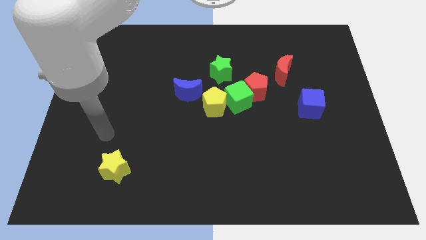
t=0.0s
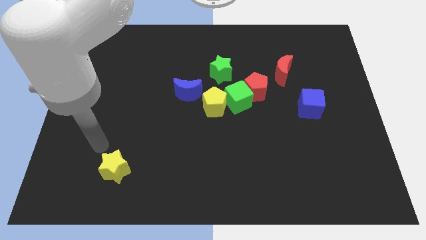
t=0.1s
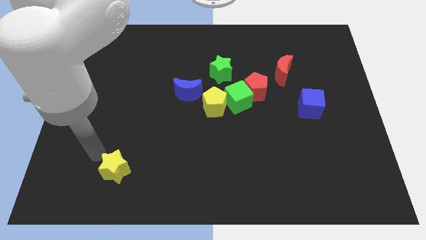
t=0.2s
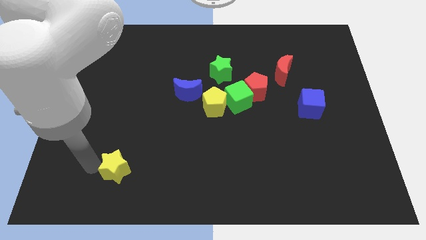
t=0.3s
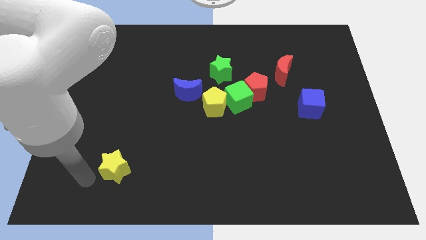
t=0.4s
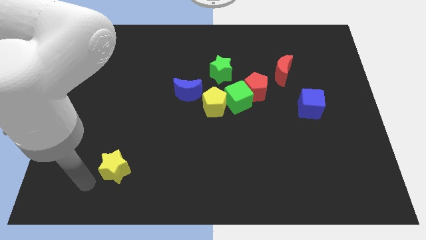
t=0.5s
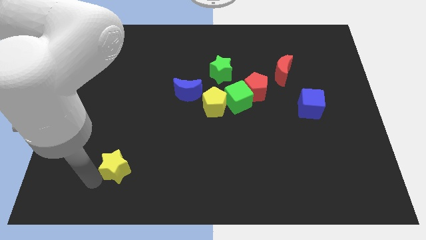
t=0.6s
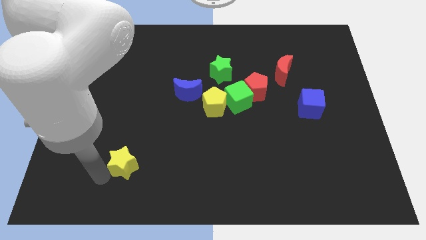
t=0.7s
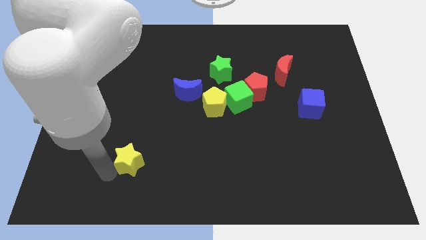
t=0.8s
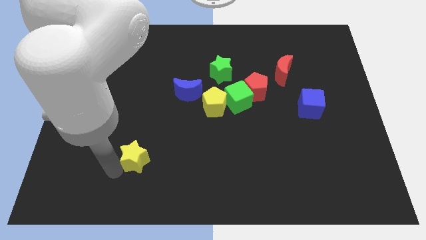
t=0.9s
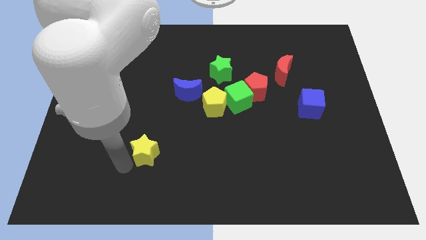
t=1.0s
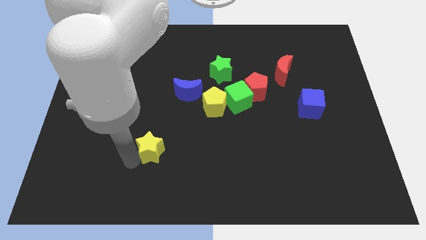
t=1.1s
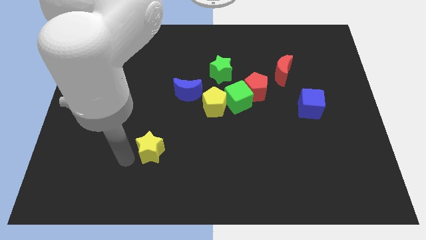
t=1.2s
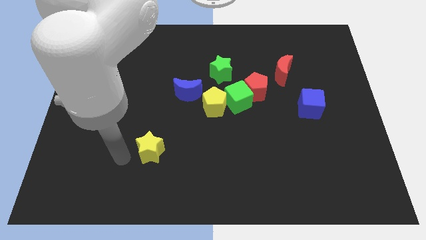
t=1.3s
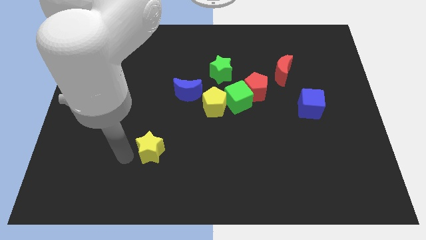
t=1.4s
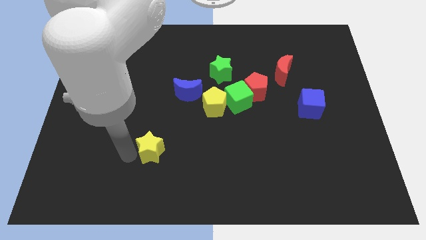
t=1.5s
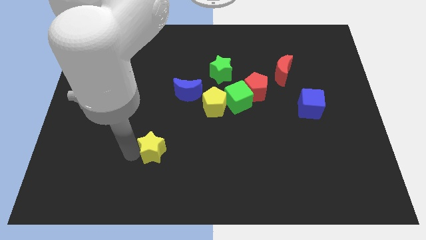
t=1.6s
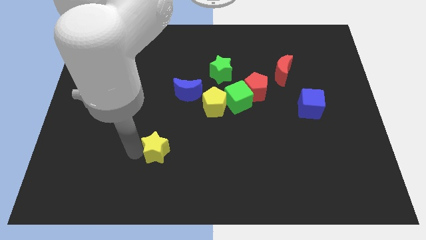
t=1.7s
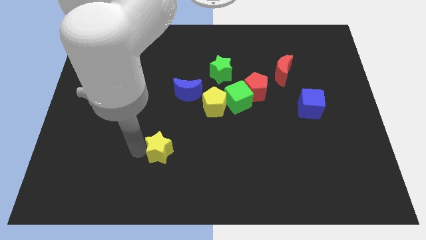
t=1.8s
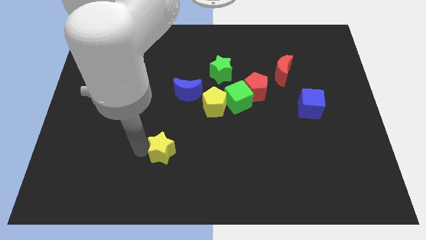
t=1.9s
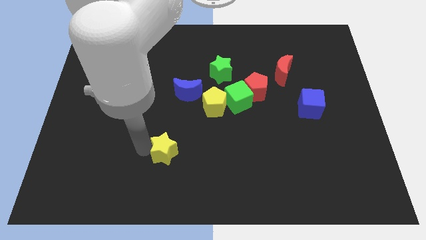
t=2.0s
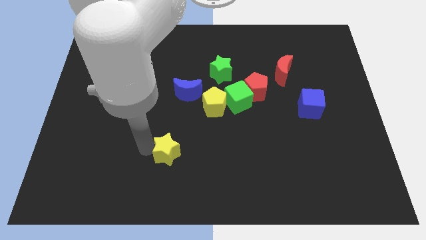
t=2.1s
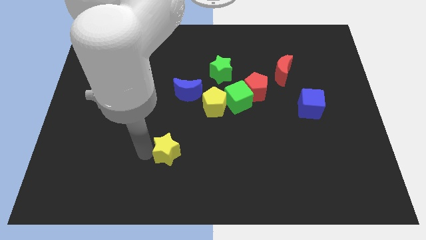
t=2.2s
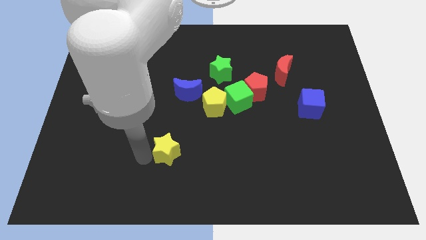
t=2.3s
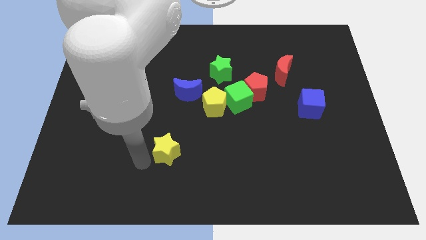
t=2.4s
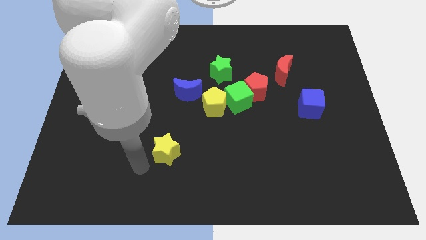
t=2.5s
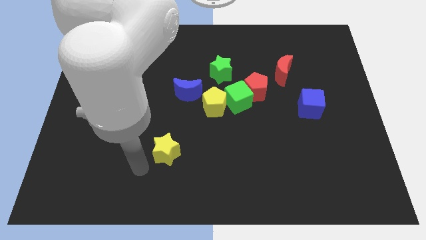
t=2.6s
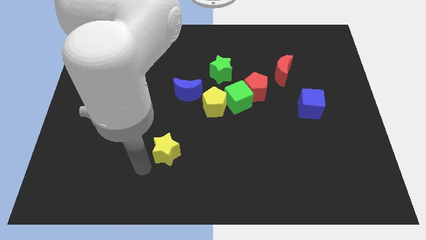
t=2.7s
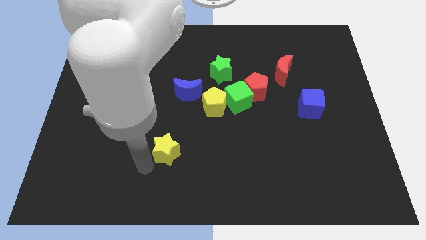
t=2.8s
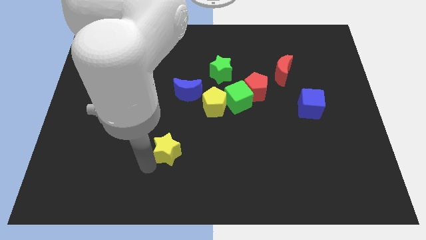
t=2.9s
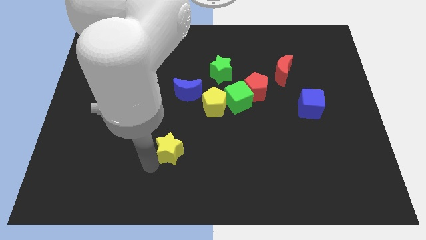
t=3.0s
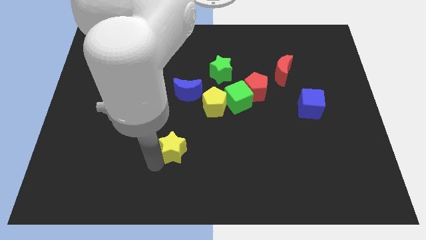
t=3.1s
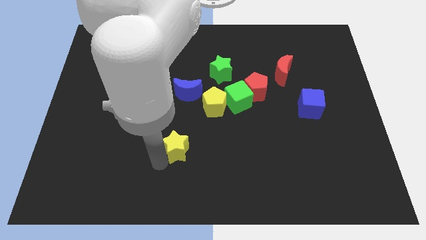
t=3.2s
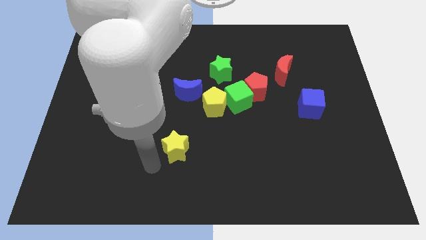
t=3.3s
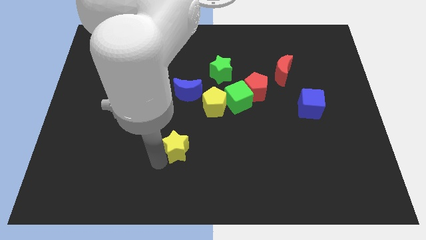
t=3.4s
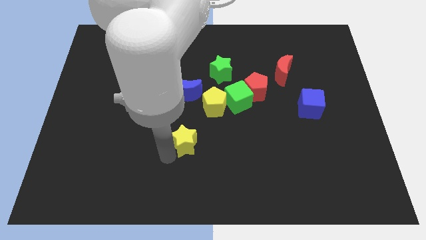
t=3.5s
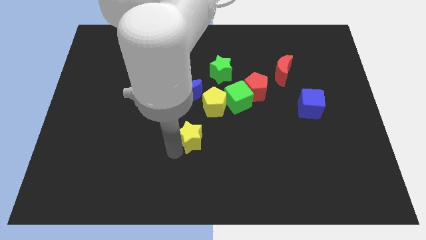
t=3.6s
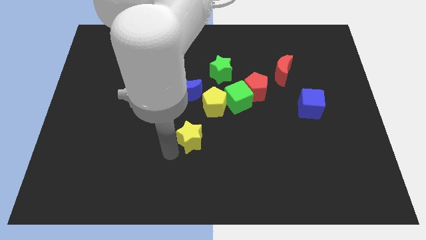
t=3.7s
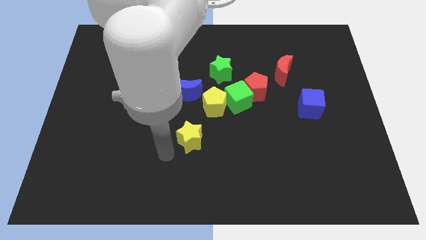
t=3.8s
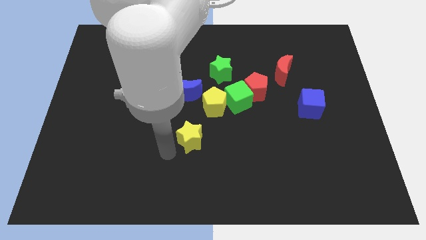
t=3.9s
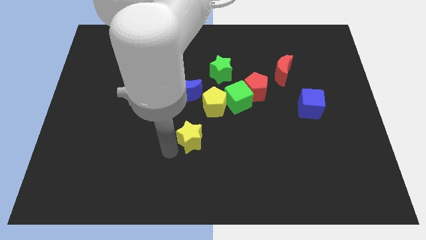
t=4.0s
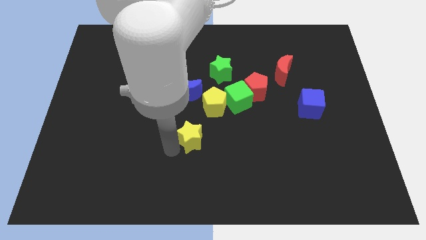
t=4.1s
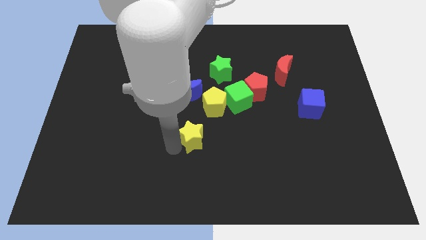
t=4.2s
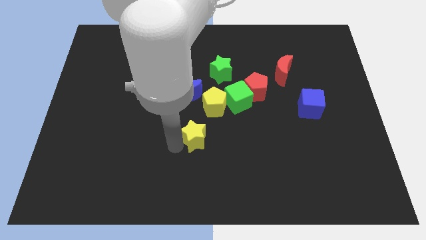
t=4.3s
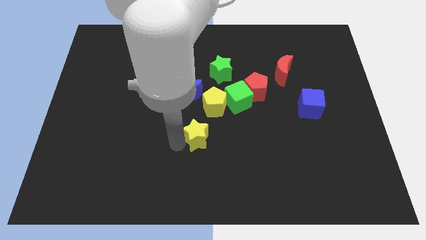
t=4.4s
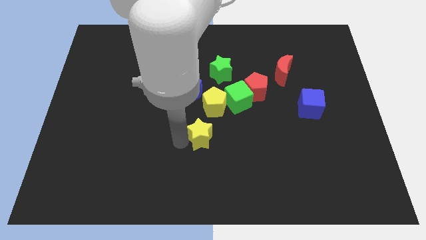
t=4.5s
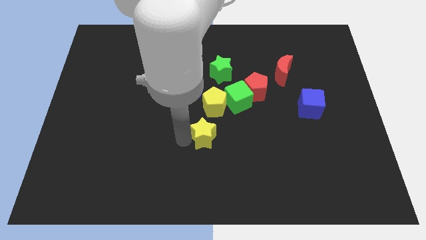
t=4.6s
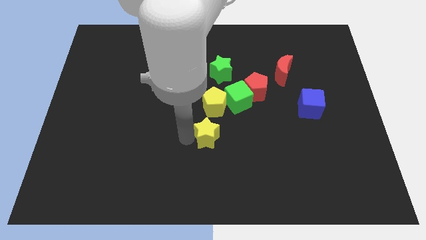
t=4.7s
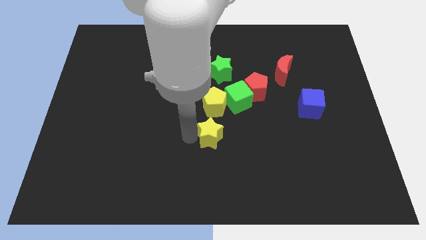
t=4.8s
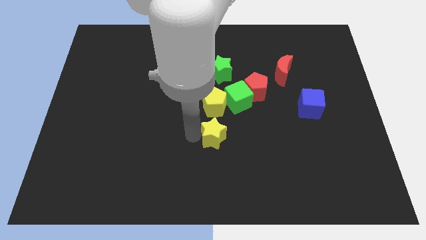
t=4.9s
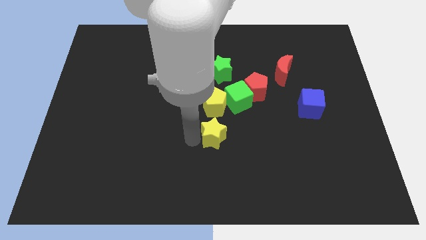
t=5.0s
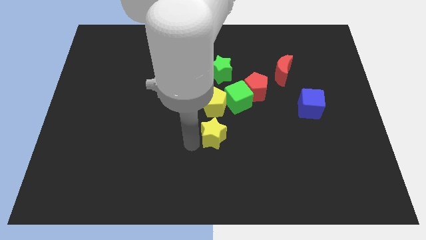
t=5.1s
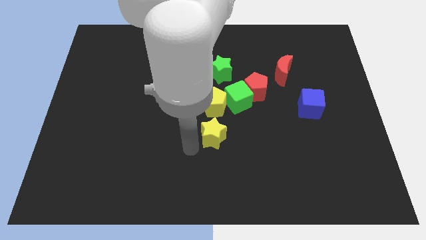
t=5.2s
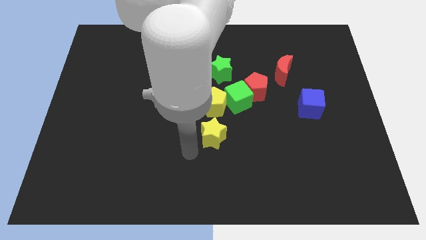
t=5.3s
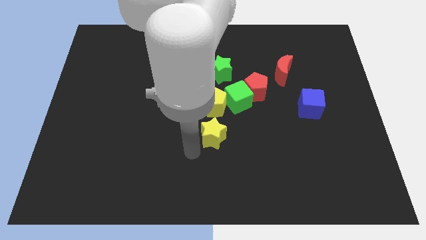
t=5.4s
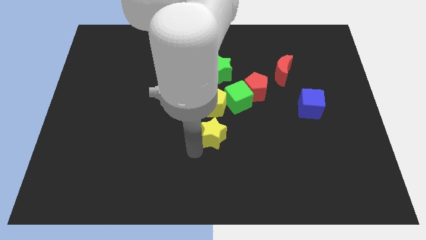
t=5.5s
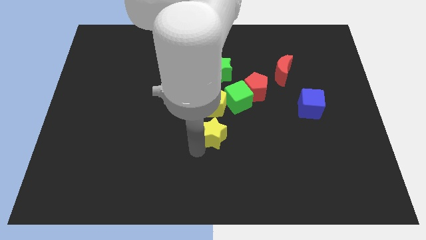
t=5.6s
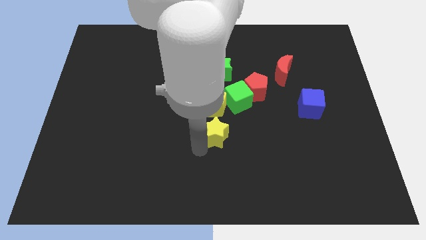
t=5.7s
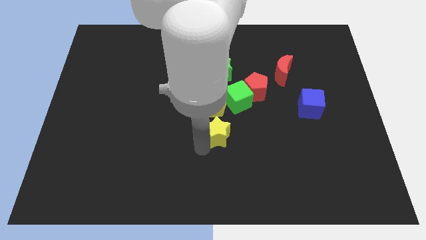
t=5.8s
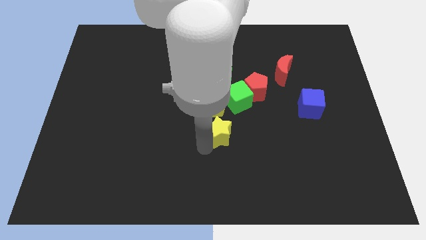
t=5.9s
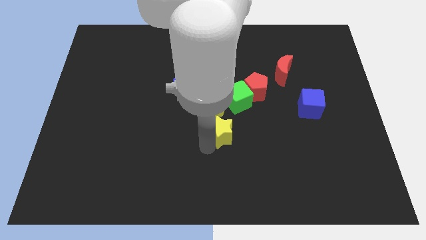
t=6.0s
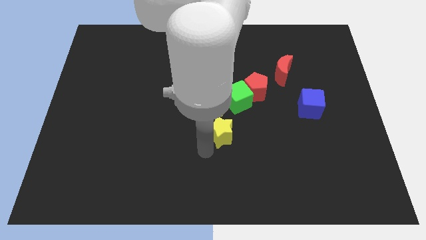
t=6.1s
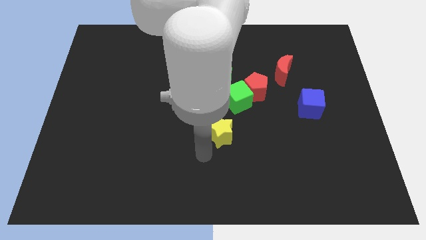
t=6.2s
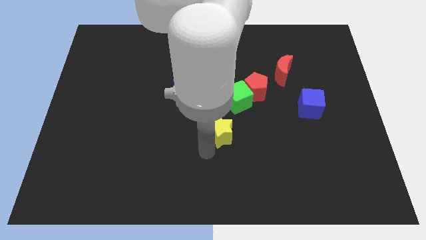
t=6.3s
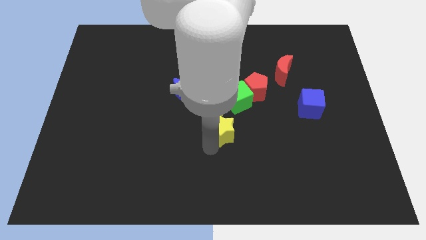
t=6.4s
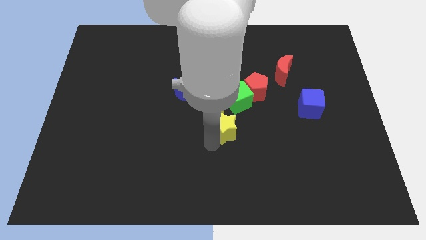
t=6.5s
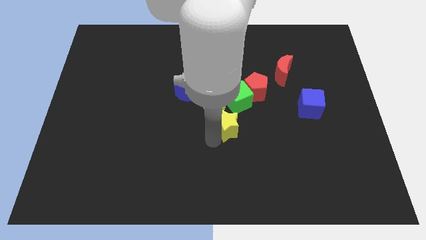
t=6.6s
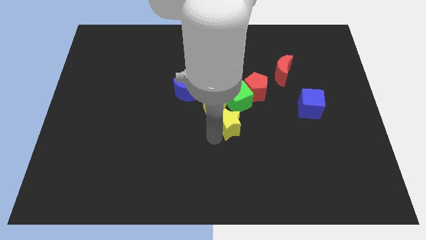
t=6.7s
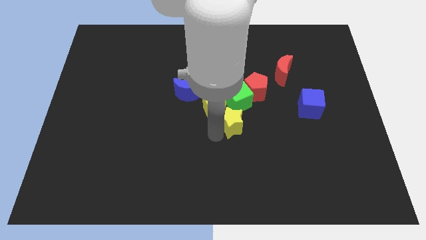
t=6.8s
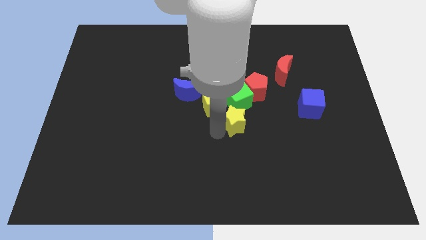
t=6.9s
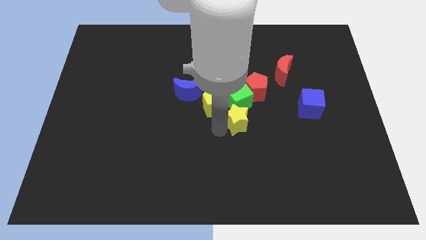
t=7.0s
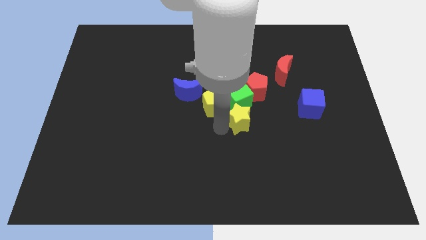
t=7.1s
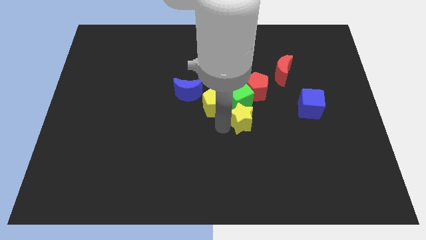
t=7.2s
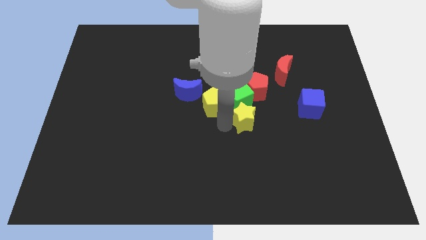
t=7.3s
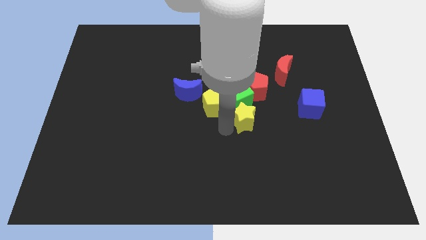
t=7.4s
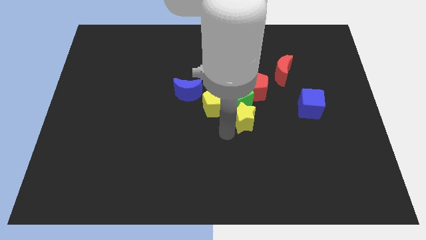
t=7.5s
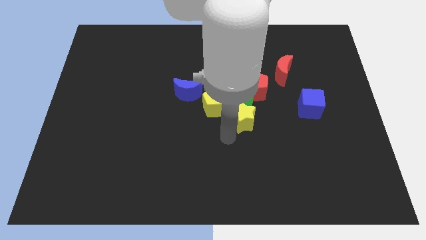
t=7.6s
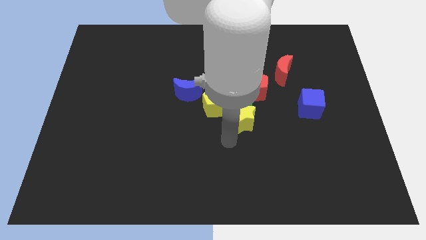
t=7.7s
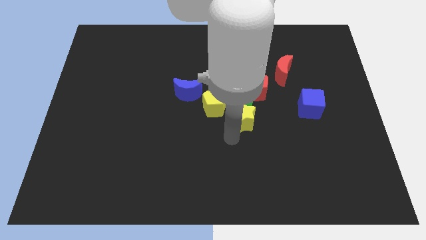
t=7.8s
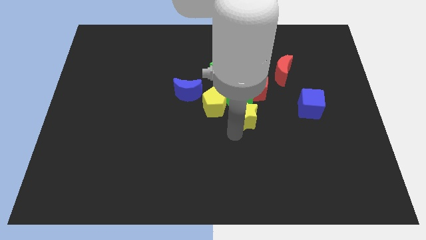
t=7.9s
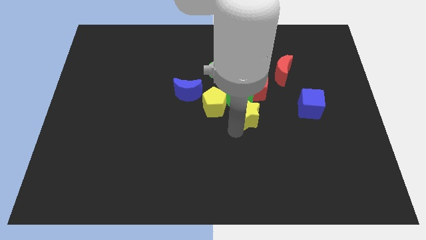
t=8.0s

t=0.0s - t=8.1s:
push the yellow star to the left side of the blue cube
